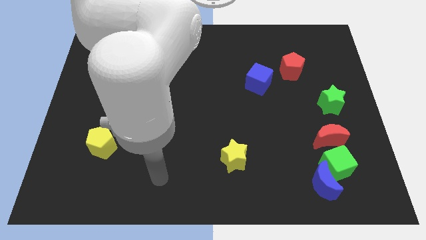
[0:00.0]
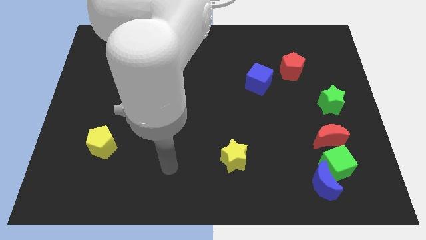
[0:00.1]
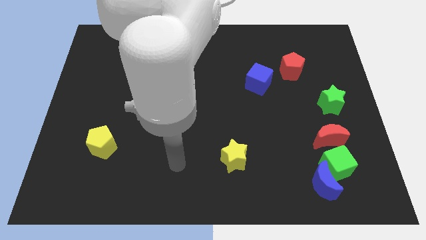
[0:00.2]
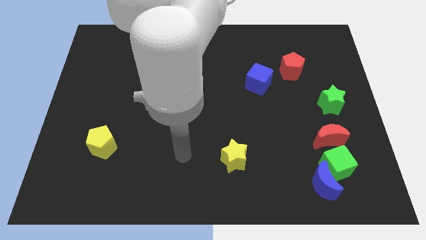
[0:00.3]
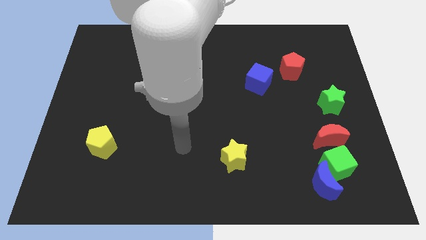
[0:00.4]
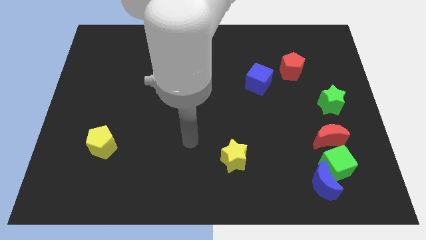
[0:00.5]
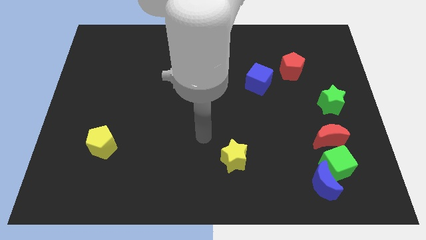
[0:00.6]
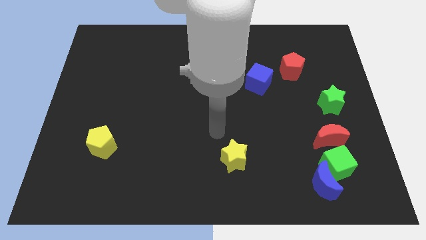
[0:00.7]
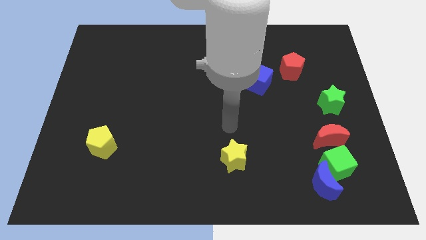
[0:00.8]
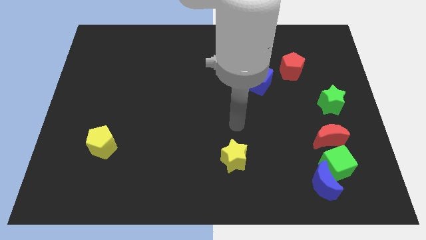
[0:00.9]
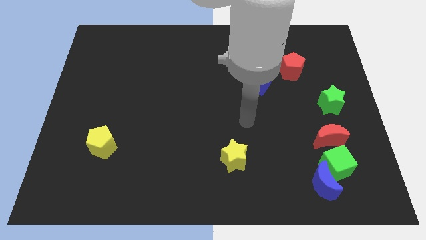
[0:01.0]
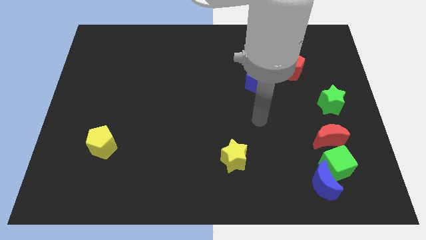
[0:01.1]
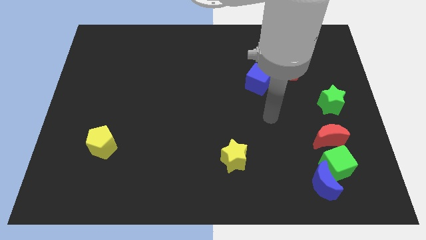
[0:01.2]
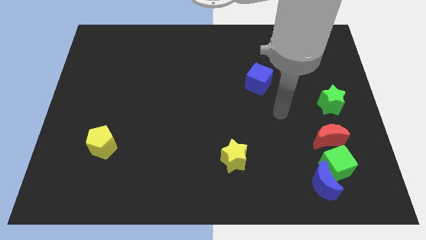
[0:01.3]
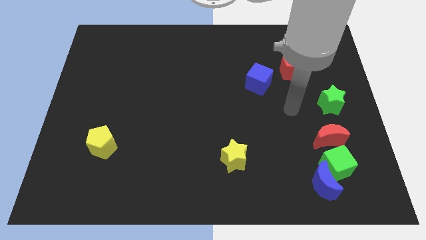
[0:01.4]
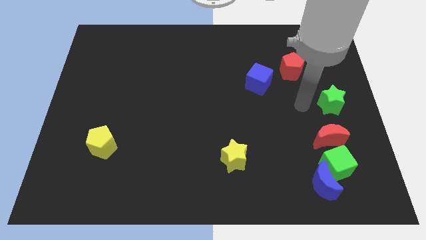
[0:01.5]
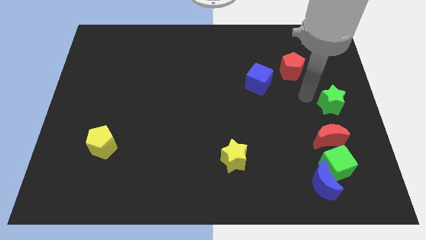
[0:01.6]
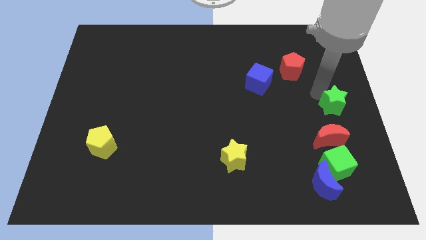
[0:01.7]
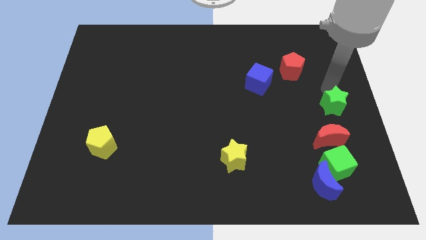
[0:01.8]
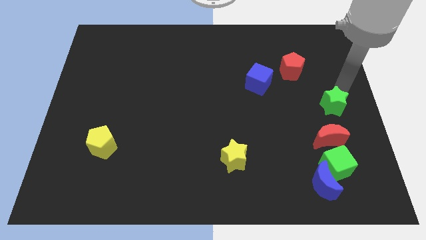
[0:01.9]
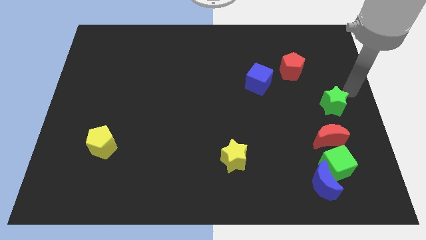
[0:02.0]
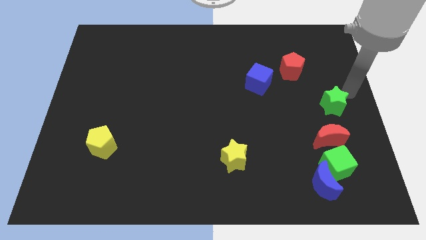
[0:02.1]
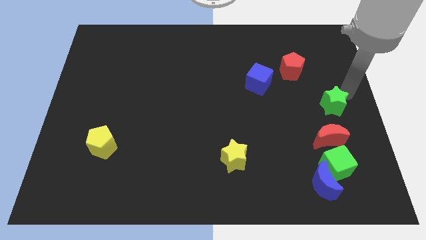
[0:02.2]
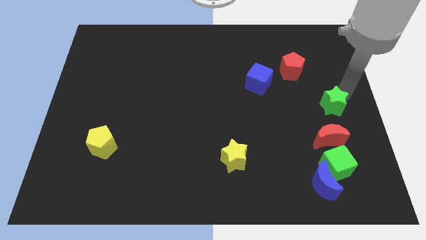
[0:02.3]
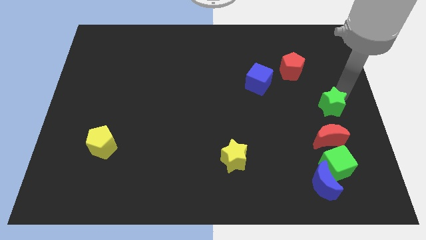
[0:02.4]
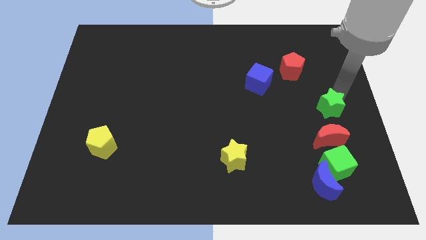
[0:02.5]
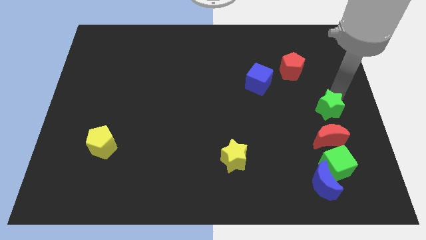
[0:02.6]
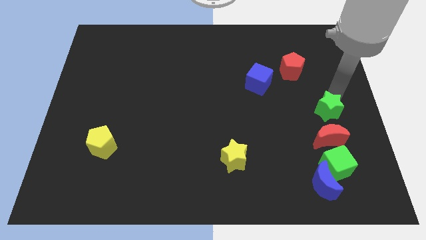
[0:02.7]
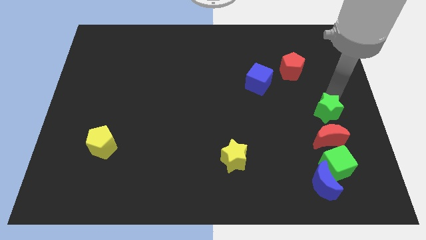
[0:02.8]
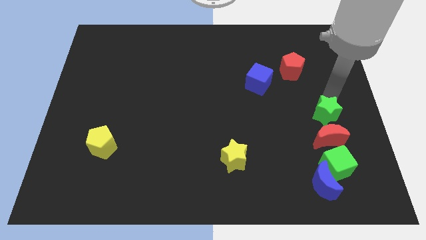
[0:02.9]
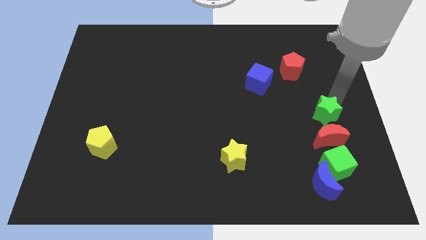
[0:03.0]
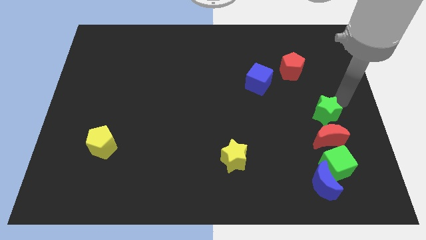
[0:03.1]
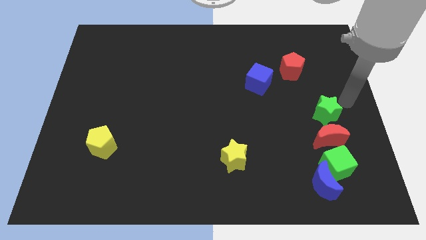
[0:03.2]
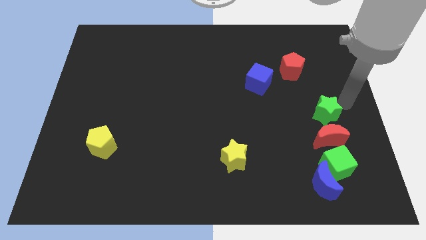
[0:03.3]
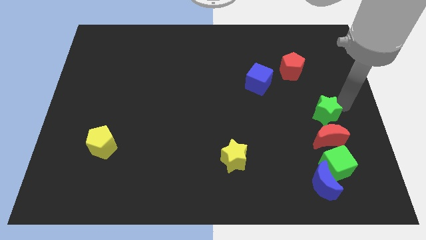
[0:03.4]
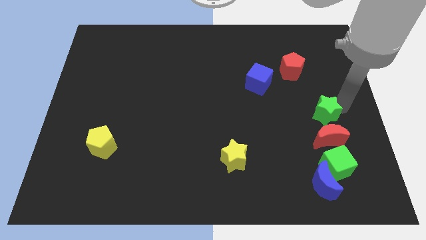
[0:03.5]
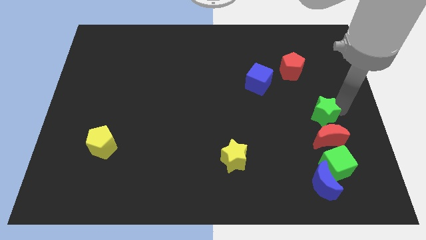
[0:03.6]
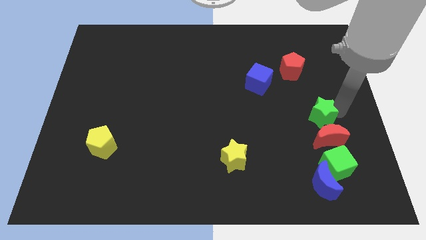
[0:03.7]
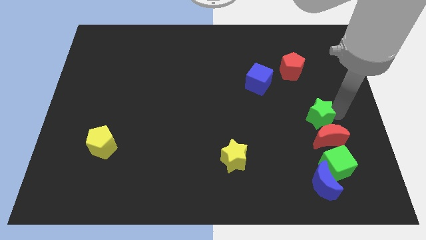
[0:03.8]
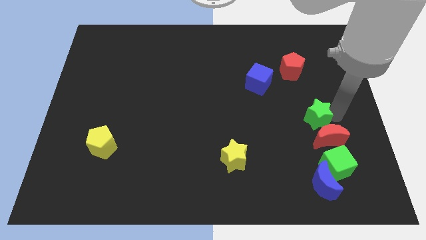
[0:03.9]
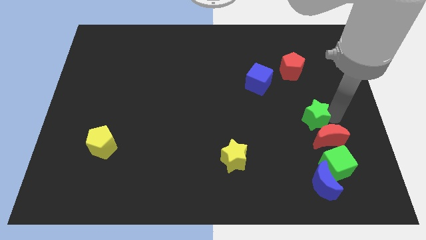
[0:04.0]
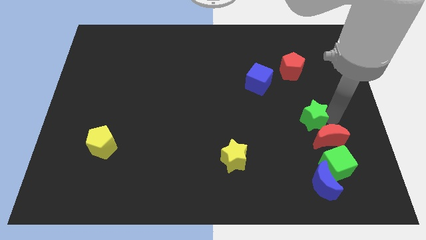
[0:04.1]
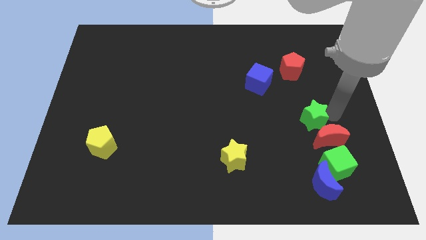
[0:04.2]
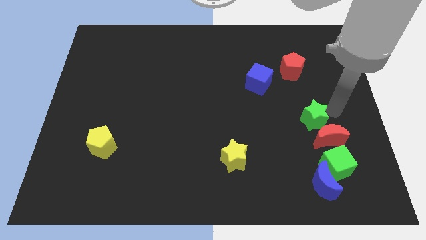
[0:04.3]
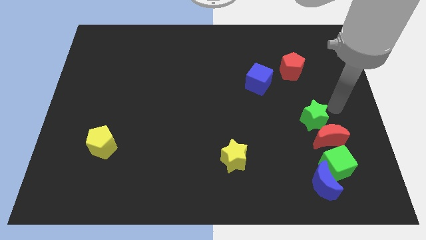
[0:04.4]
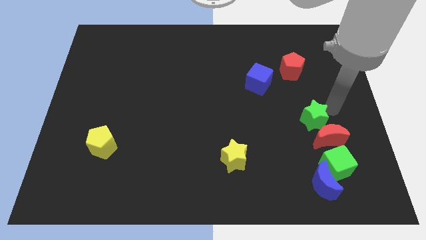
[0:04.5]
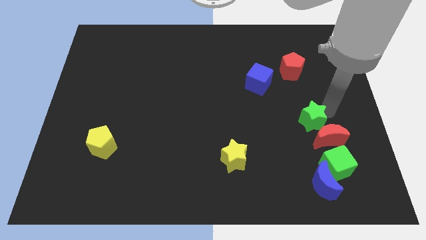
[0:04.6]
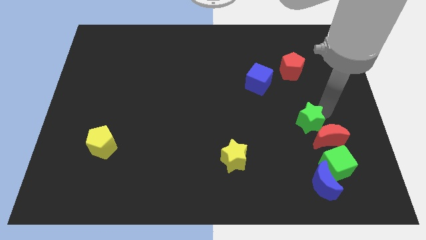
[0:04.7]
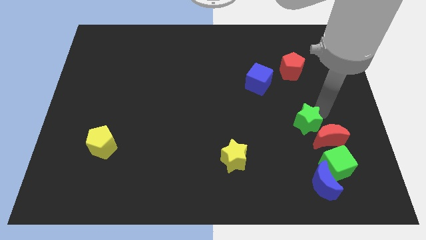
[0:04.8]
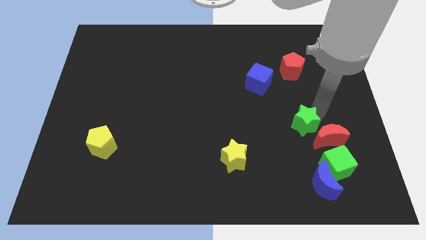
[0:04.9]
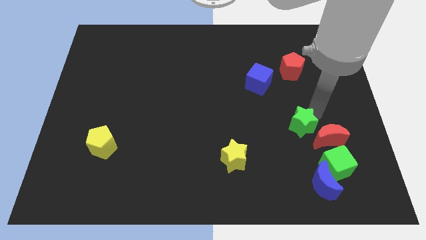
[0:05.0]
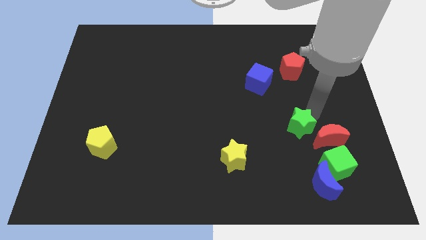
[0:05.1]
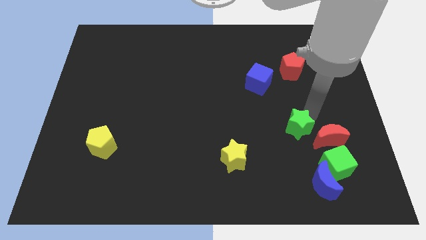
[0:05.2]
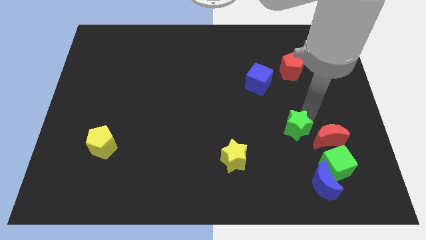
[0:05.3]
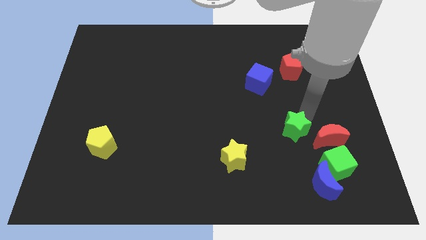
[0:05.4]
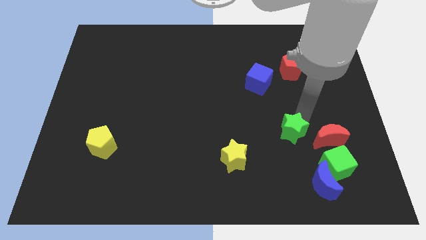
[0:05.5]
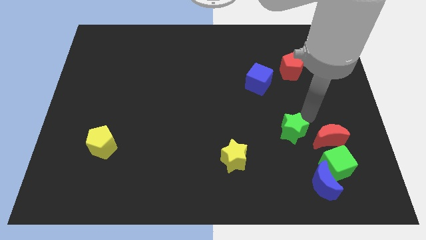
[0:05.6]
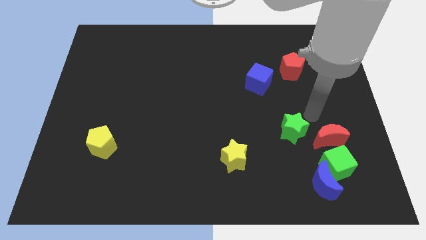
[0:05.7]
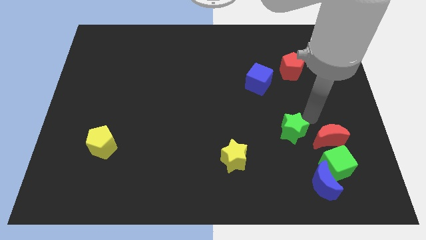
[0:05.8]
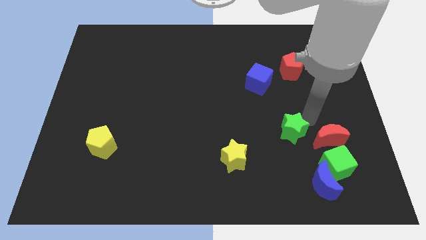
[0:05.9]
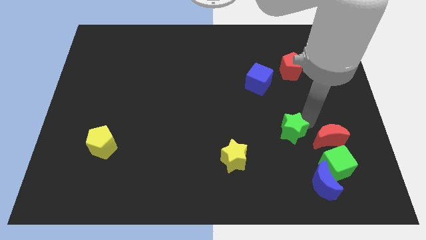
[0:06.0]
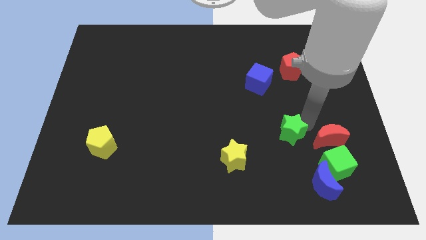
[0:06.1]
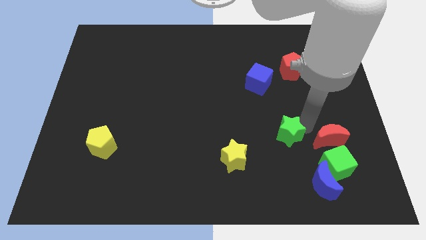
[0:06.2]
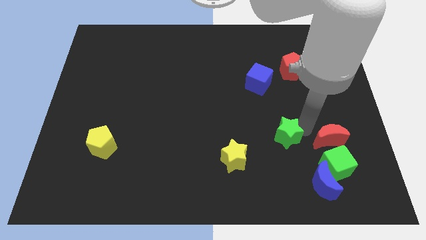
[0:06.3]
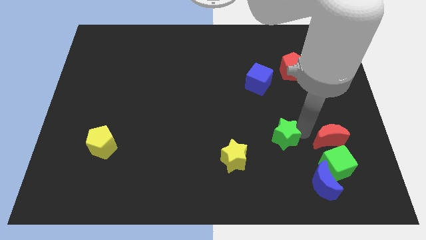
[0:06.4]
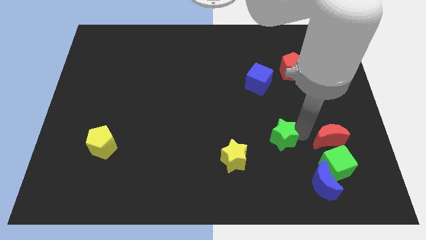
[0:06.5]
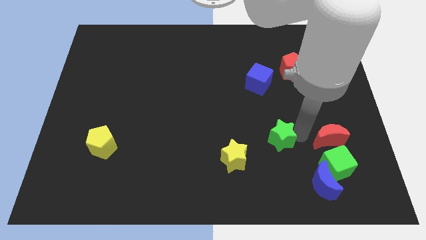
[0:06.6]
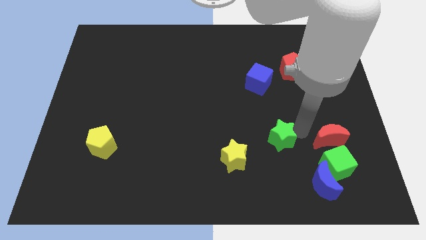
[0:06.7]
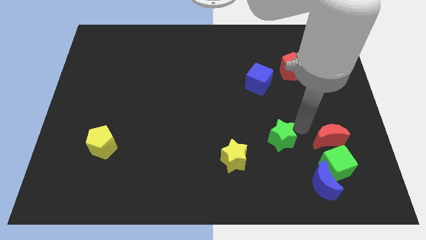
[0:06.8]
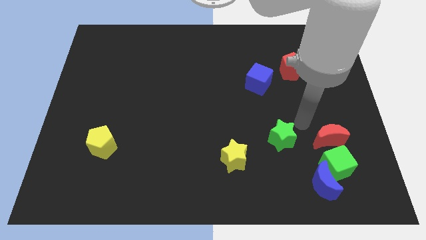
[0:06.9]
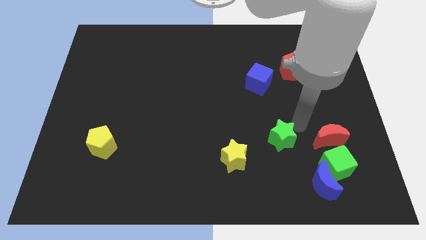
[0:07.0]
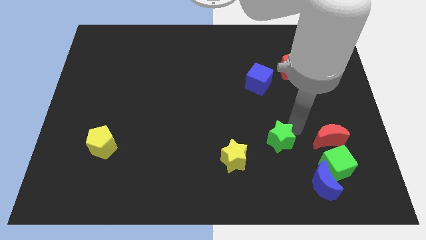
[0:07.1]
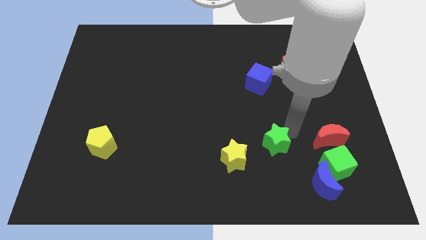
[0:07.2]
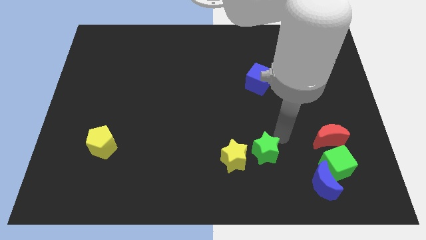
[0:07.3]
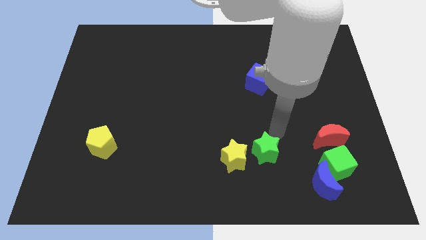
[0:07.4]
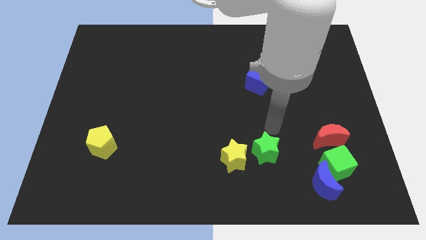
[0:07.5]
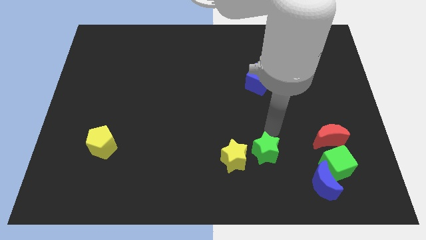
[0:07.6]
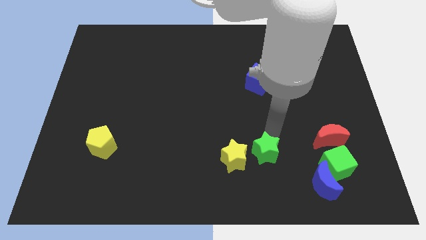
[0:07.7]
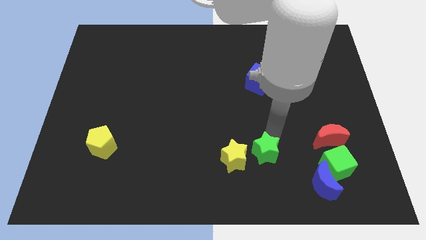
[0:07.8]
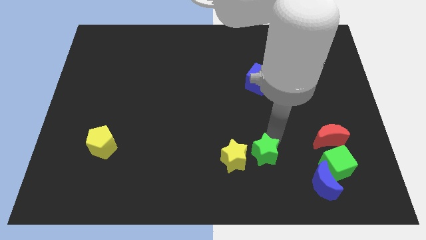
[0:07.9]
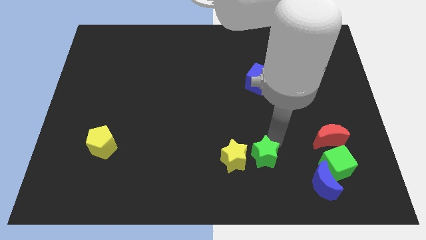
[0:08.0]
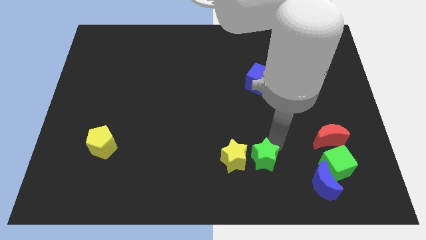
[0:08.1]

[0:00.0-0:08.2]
move the green star to the bottom right of the yellow star
